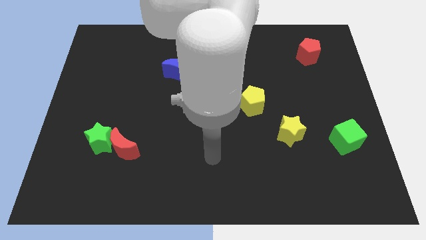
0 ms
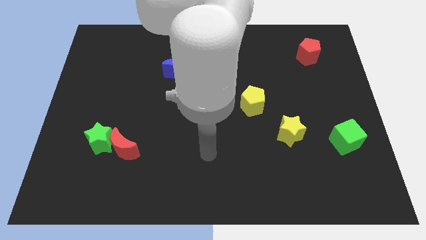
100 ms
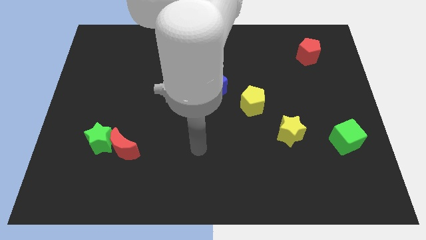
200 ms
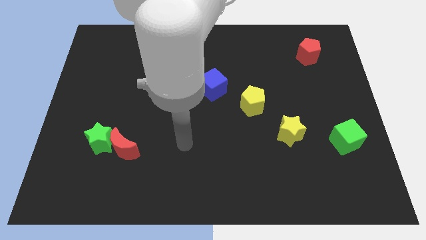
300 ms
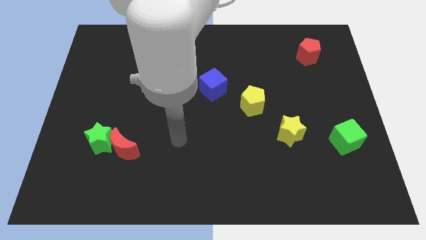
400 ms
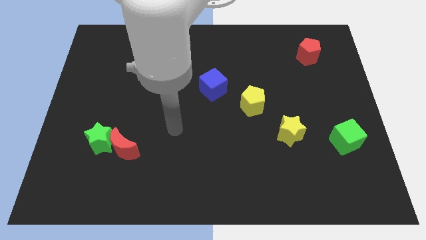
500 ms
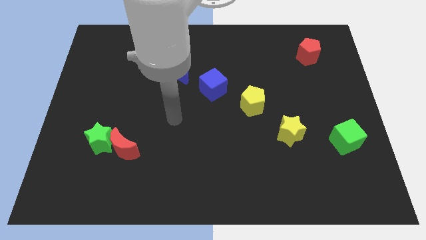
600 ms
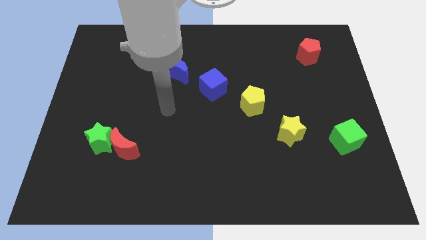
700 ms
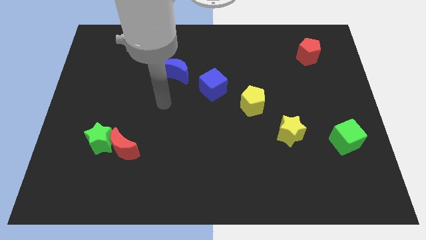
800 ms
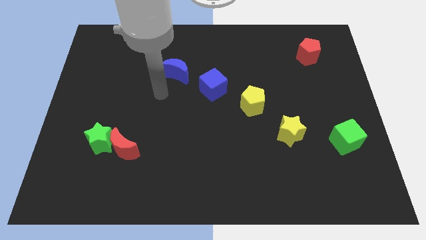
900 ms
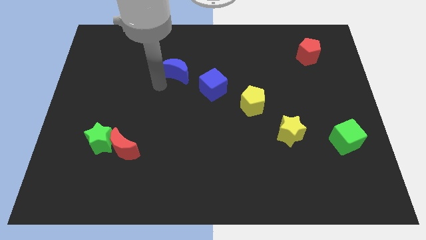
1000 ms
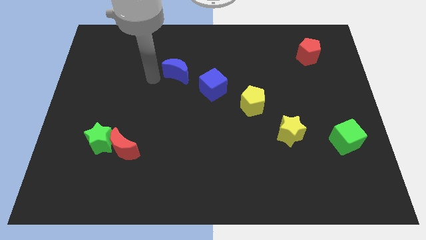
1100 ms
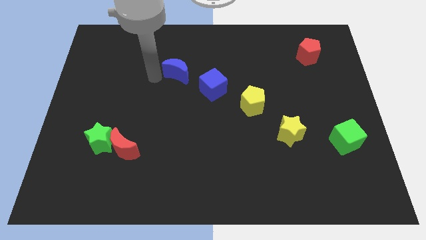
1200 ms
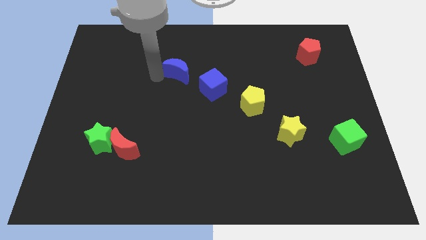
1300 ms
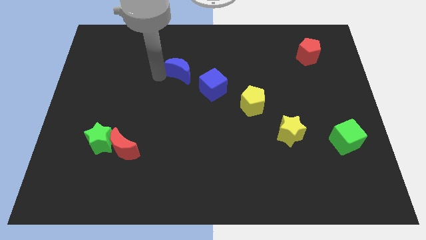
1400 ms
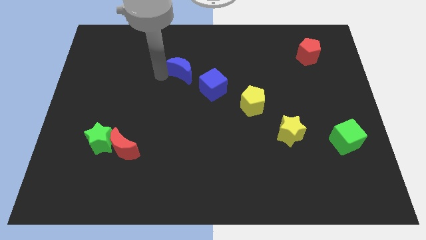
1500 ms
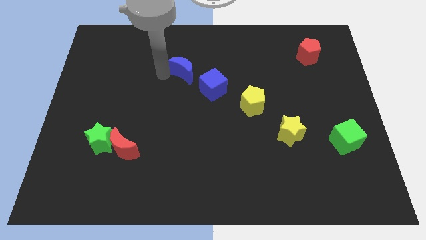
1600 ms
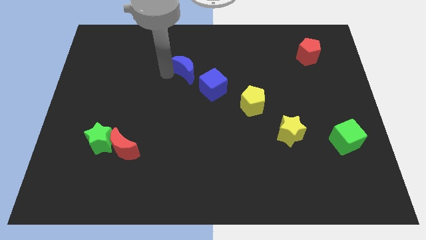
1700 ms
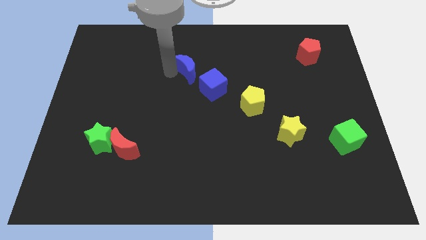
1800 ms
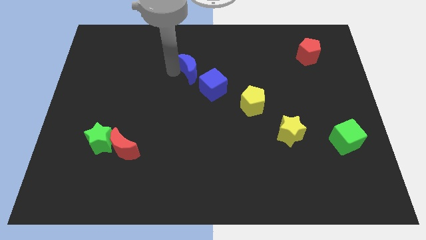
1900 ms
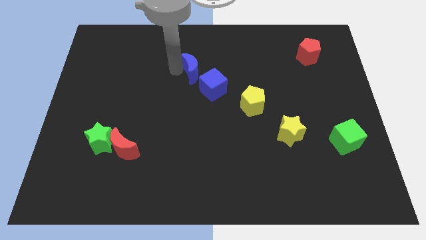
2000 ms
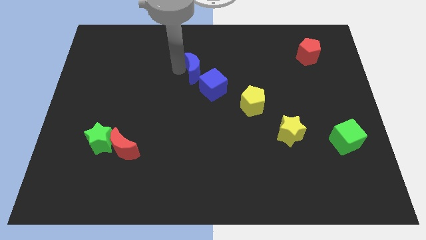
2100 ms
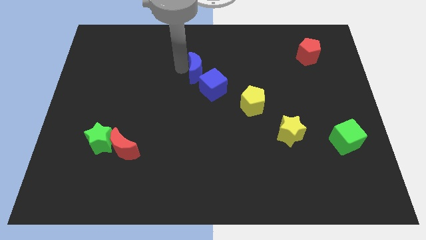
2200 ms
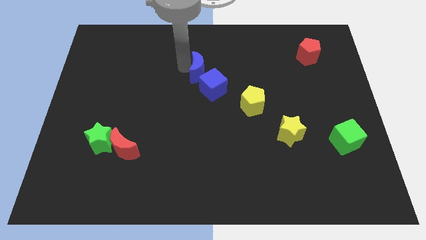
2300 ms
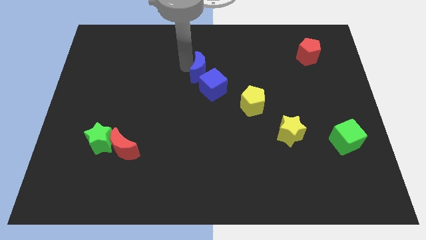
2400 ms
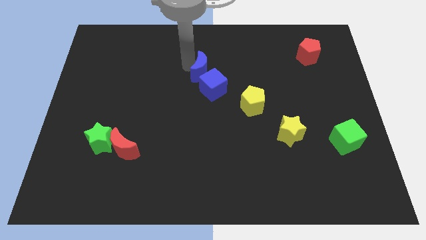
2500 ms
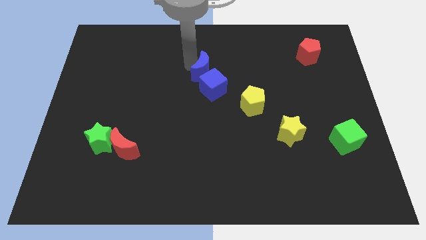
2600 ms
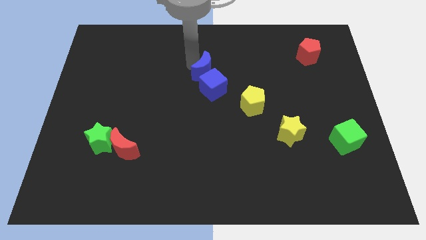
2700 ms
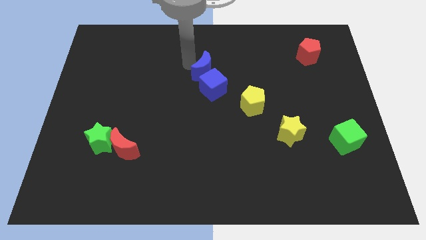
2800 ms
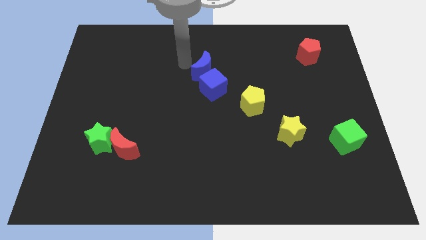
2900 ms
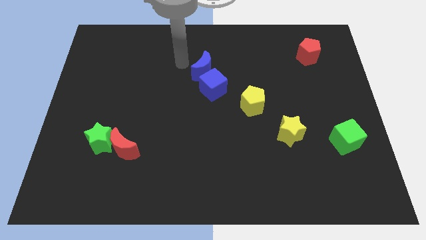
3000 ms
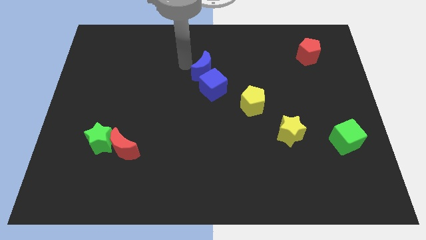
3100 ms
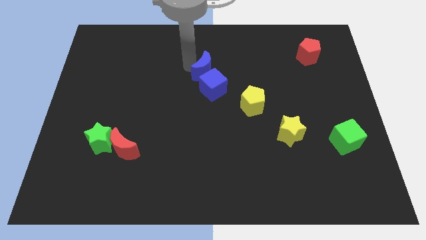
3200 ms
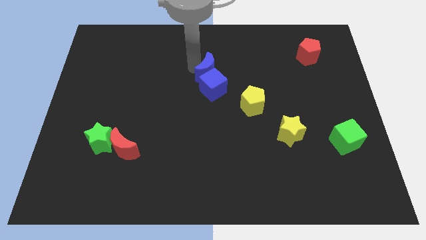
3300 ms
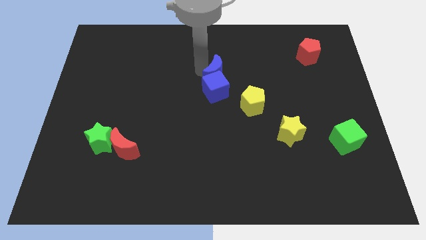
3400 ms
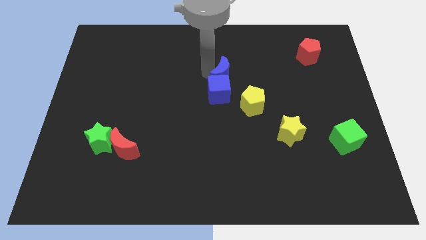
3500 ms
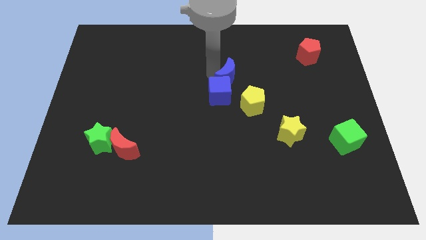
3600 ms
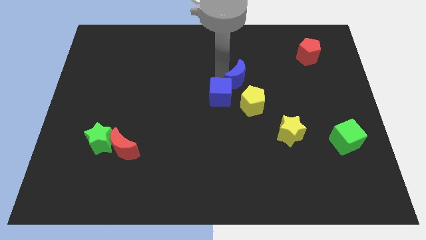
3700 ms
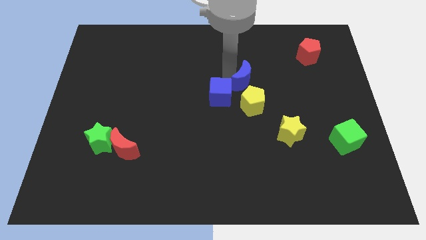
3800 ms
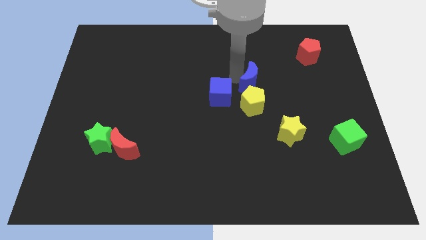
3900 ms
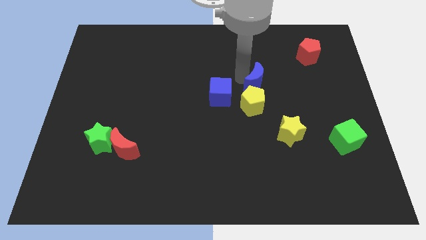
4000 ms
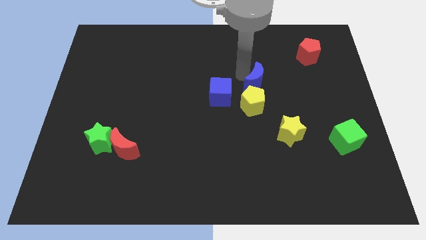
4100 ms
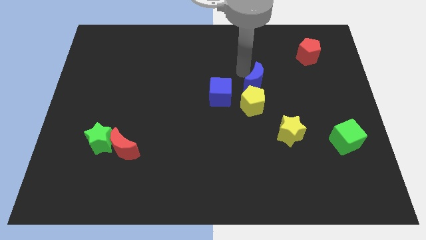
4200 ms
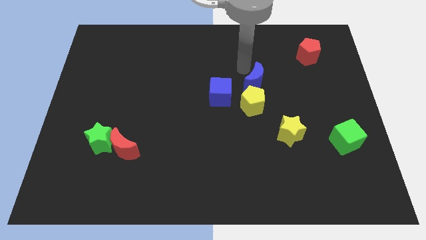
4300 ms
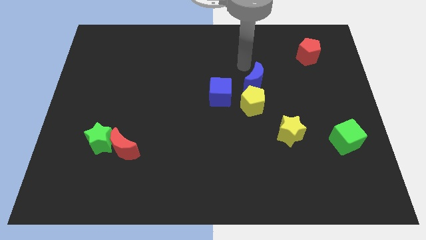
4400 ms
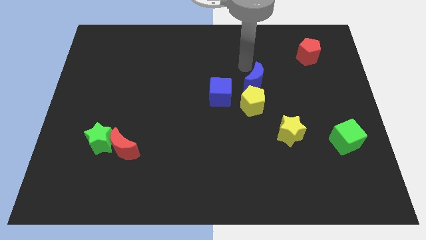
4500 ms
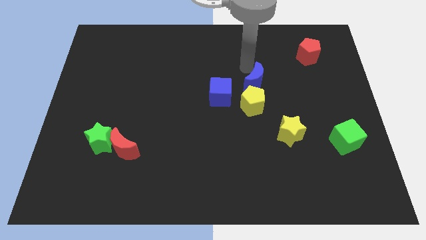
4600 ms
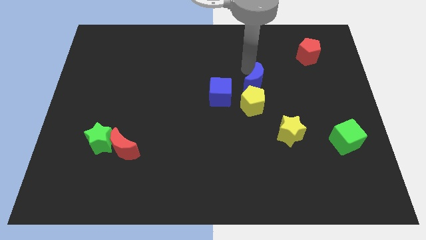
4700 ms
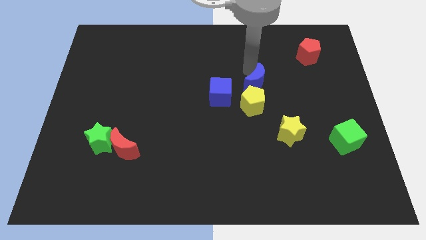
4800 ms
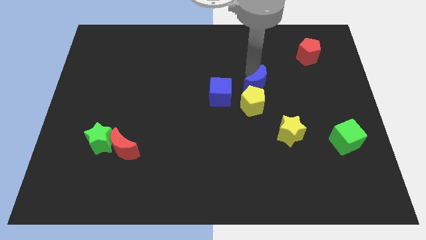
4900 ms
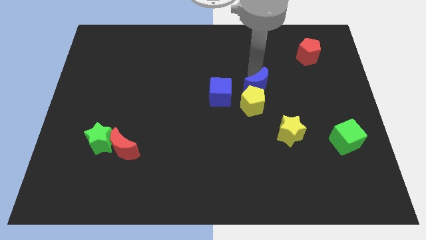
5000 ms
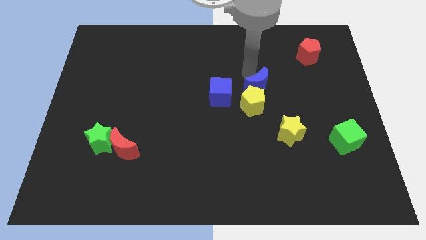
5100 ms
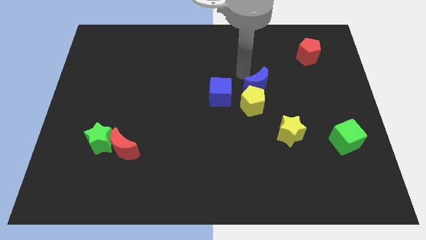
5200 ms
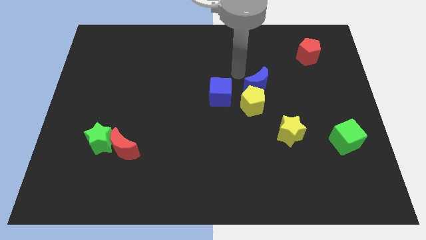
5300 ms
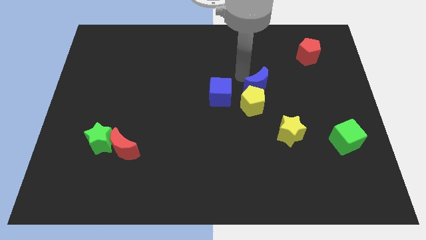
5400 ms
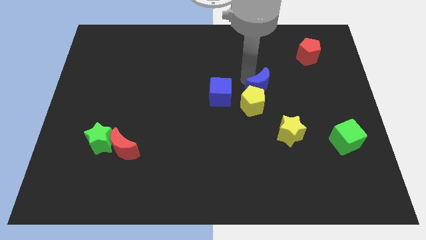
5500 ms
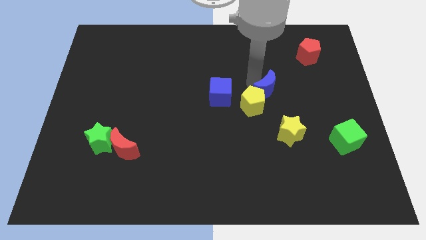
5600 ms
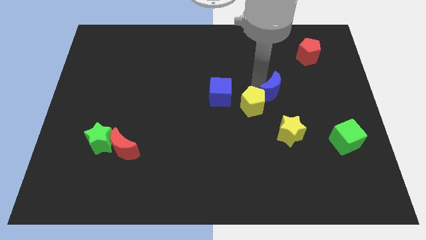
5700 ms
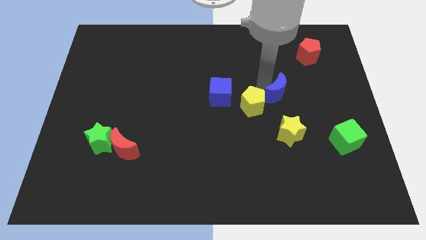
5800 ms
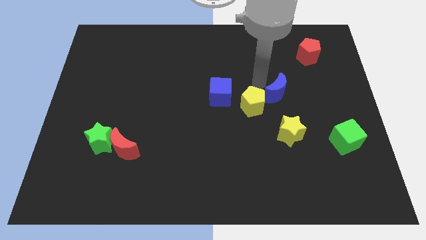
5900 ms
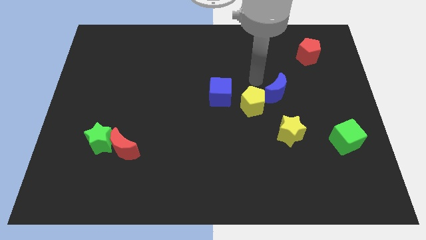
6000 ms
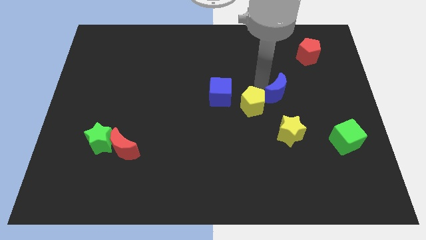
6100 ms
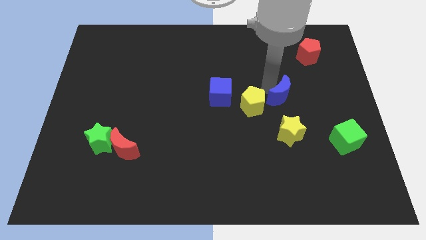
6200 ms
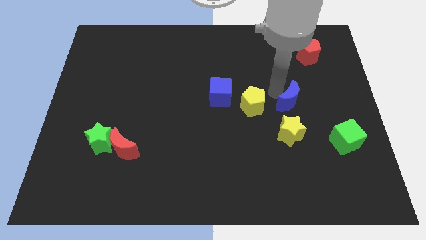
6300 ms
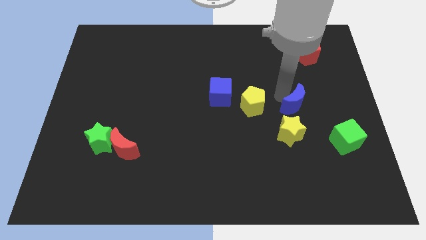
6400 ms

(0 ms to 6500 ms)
move the blue moon diagonally up and to the right of the yellow star

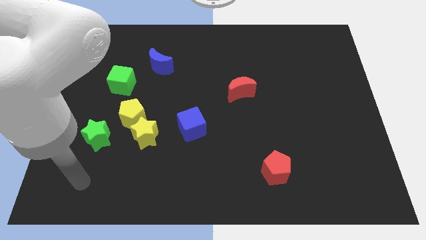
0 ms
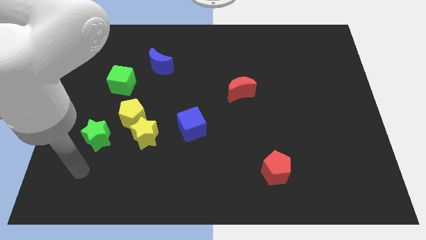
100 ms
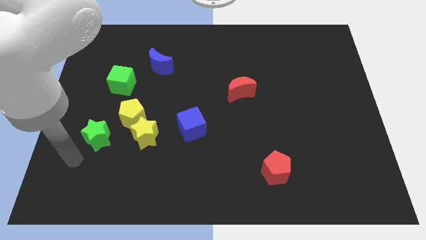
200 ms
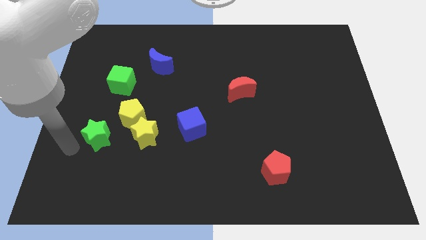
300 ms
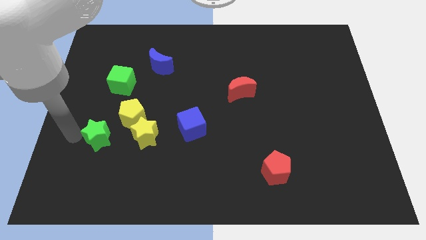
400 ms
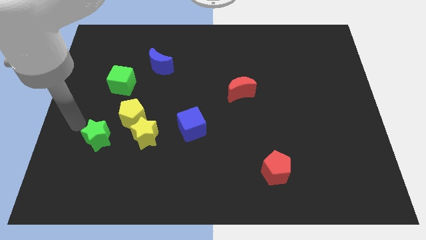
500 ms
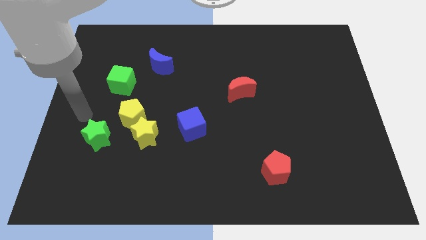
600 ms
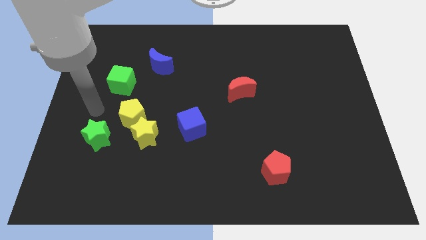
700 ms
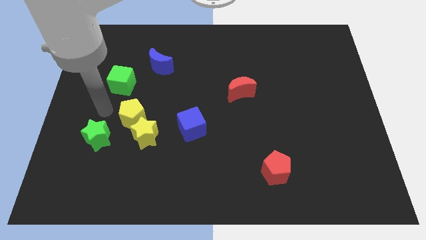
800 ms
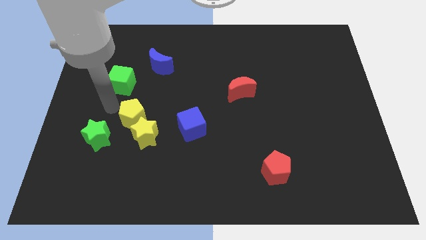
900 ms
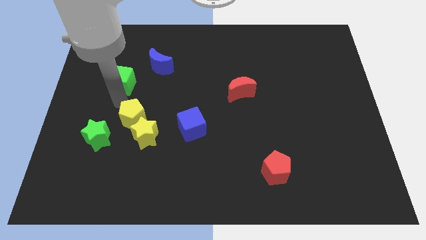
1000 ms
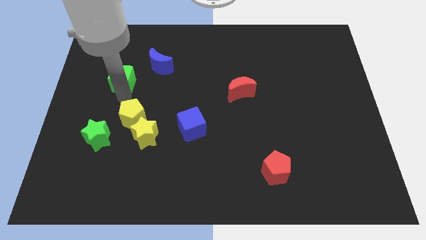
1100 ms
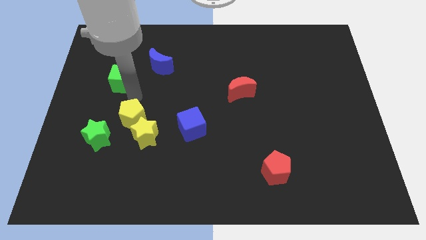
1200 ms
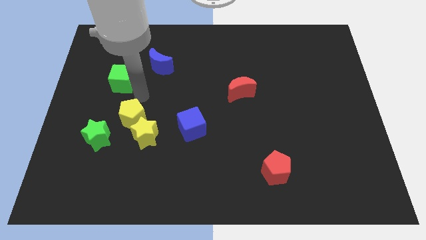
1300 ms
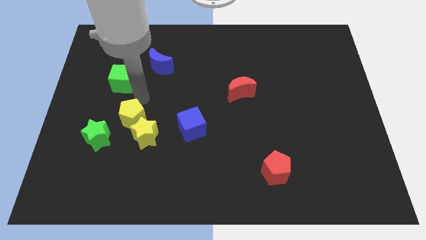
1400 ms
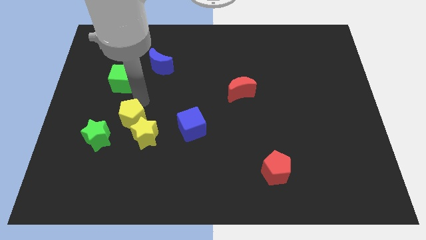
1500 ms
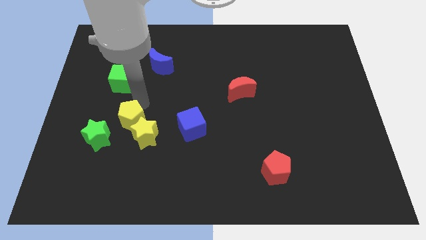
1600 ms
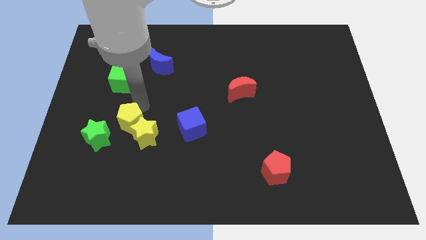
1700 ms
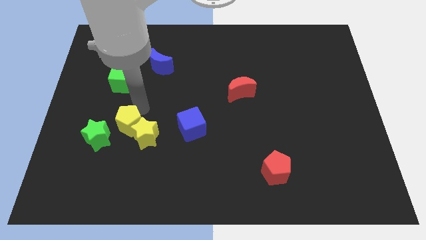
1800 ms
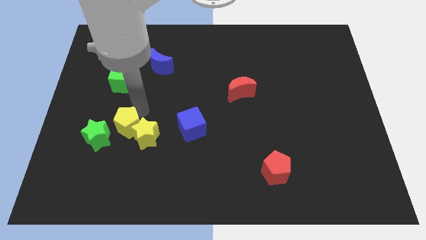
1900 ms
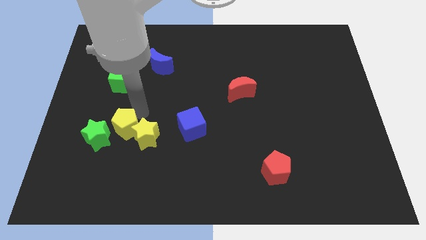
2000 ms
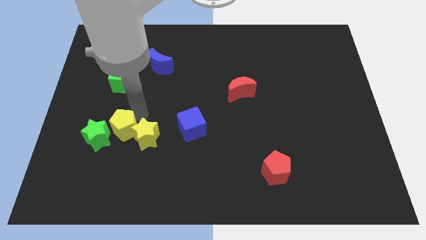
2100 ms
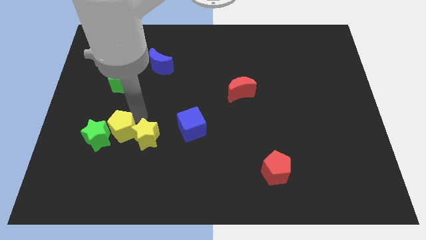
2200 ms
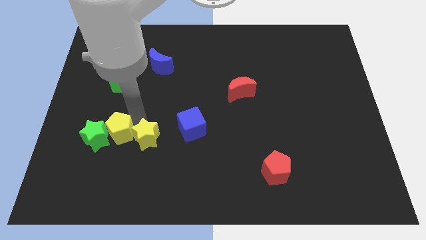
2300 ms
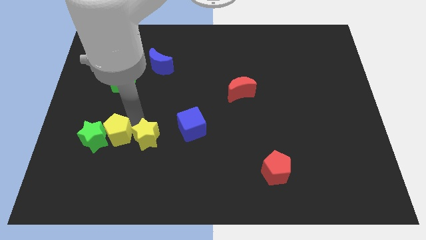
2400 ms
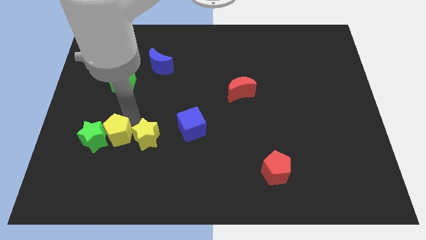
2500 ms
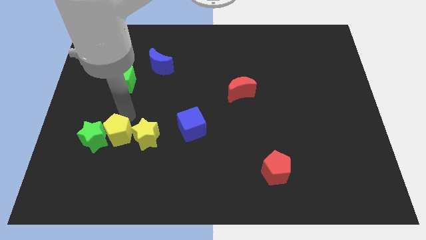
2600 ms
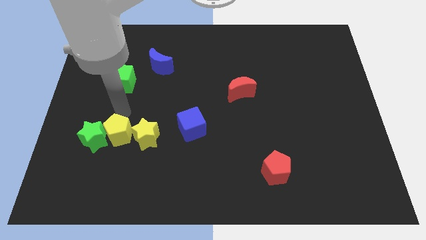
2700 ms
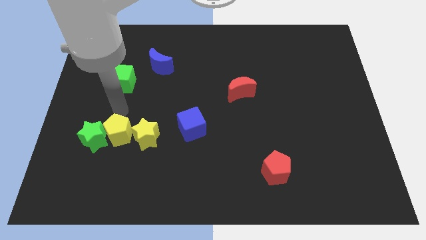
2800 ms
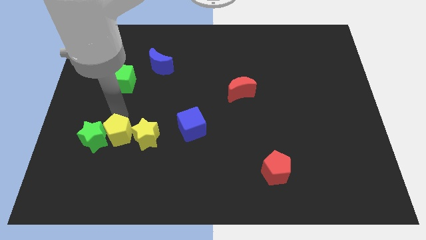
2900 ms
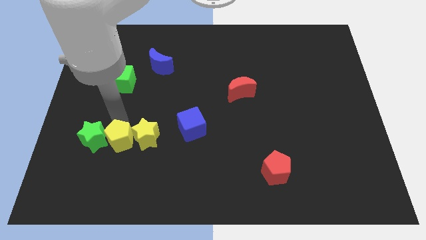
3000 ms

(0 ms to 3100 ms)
slide the yellow pentagon to the bottom left side of the yellow star
